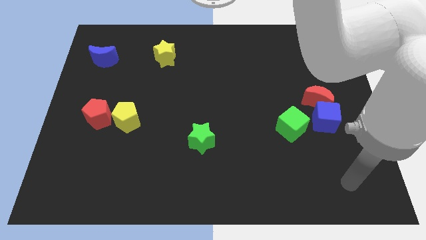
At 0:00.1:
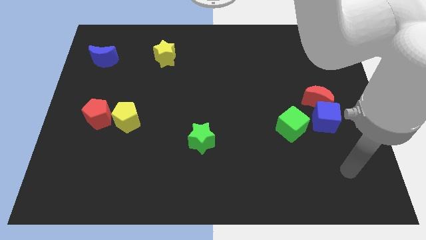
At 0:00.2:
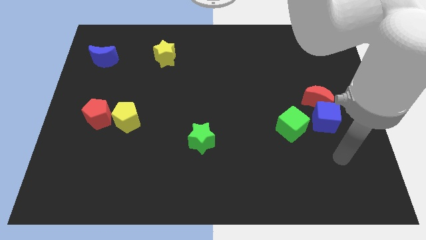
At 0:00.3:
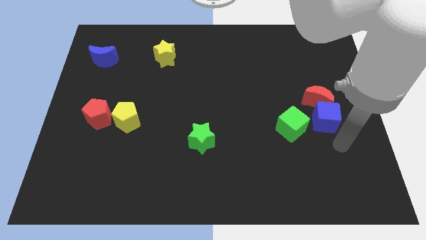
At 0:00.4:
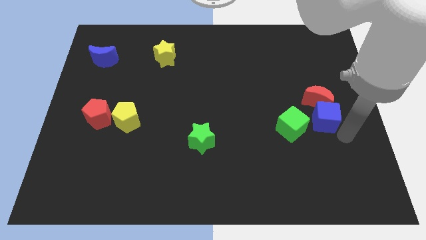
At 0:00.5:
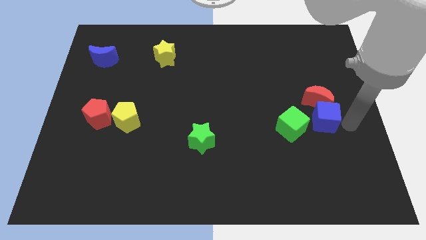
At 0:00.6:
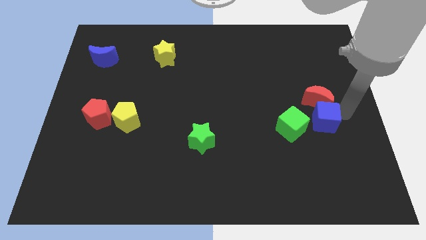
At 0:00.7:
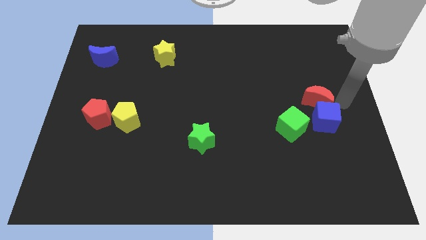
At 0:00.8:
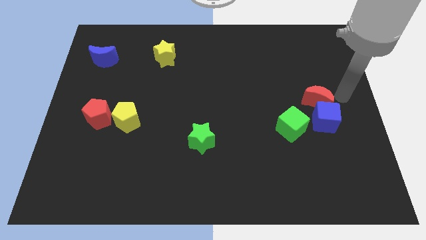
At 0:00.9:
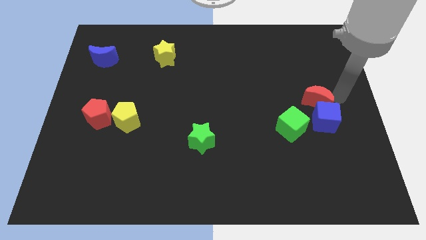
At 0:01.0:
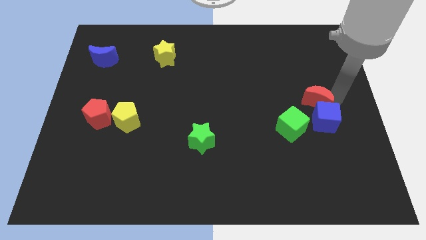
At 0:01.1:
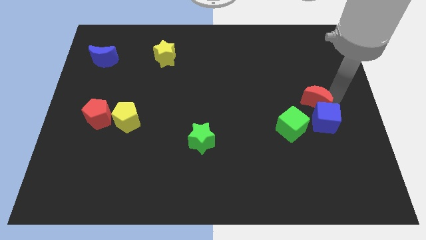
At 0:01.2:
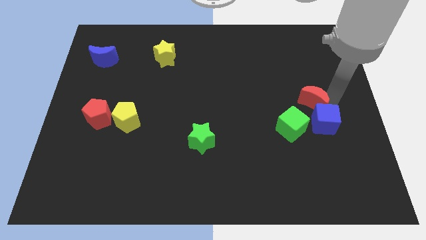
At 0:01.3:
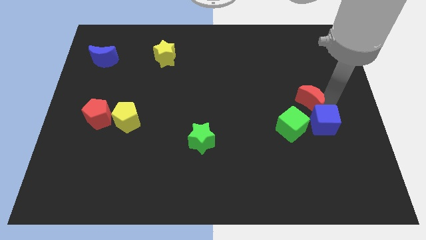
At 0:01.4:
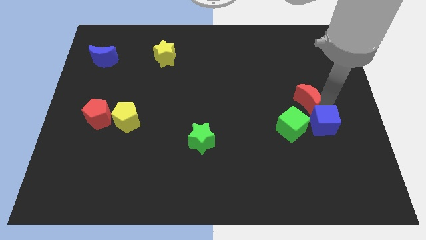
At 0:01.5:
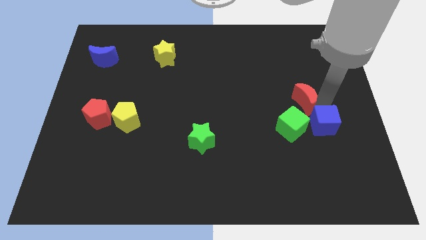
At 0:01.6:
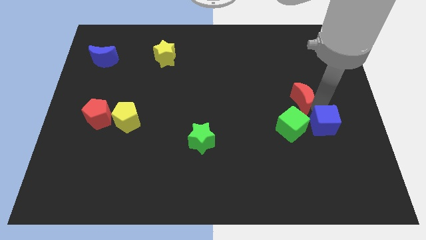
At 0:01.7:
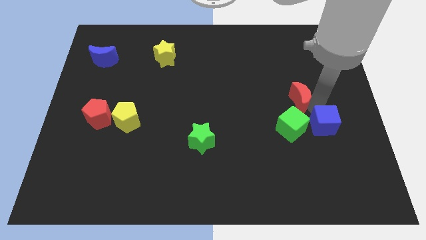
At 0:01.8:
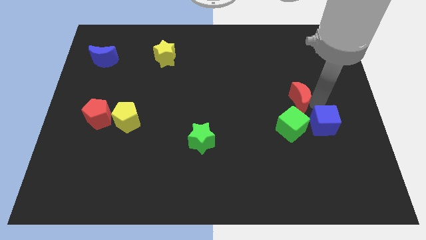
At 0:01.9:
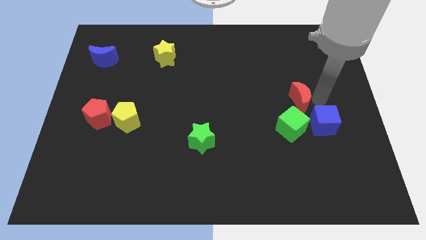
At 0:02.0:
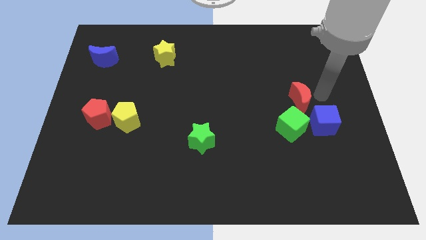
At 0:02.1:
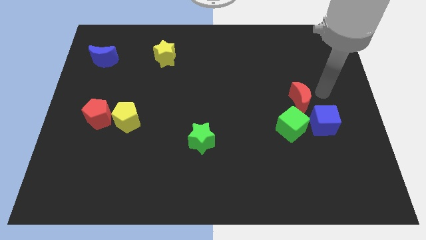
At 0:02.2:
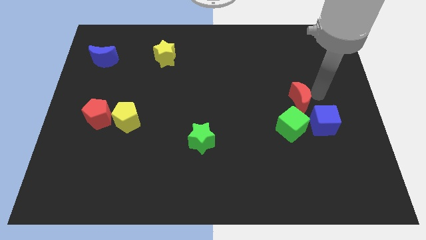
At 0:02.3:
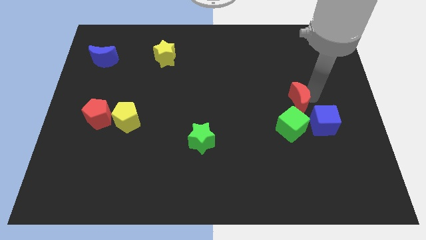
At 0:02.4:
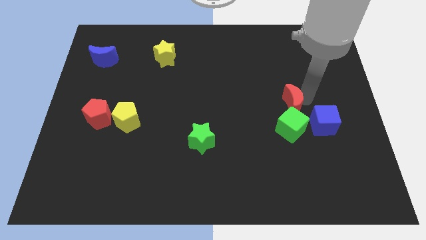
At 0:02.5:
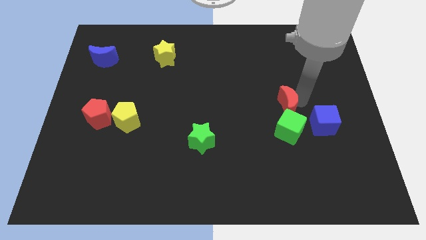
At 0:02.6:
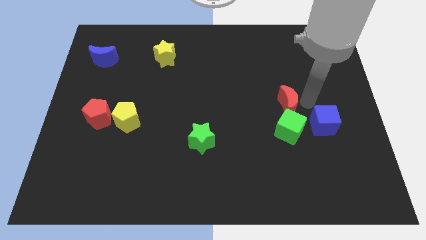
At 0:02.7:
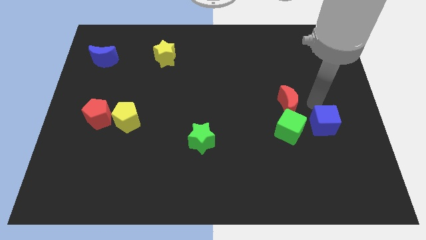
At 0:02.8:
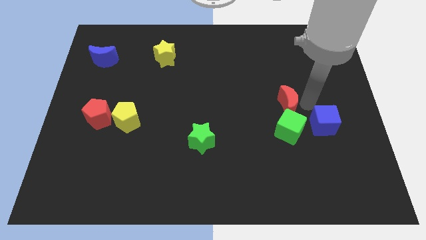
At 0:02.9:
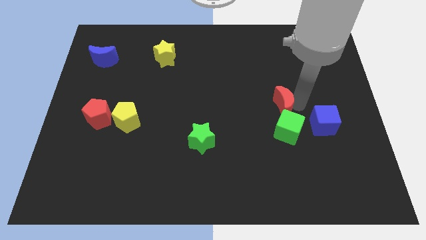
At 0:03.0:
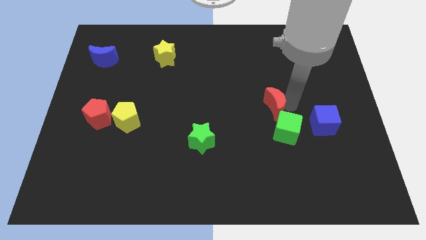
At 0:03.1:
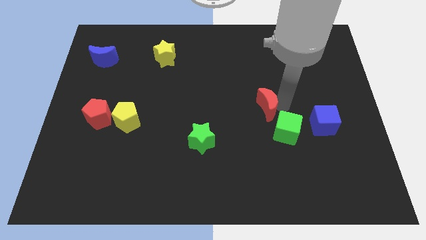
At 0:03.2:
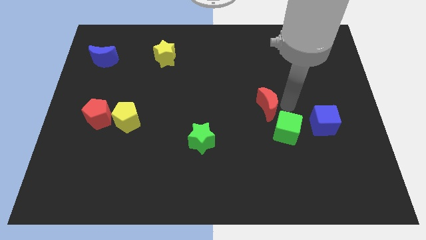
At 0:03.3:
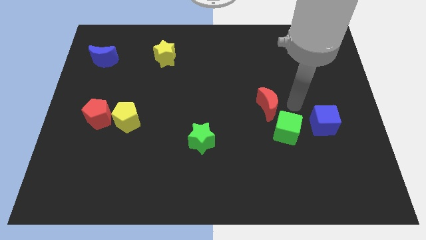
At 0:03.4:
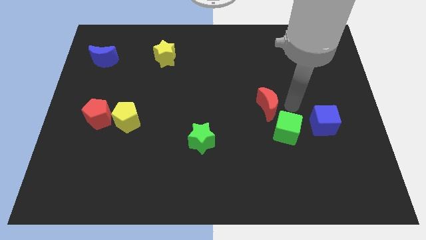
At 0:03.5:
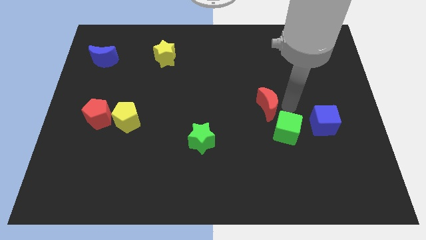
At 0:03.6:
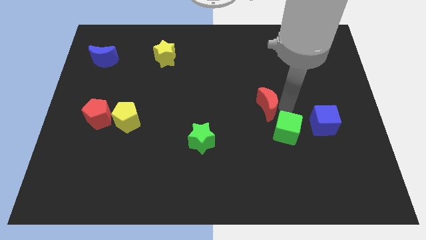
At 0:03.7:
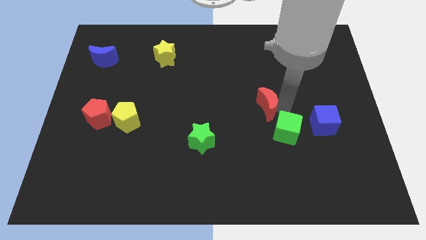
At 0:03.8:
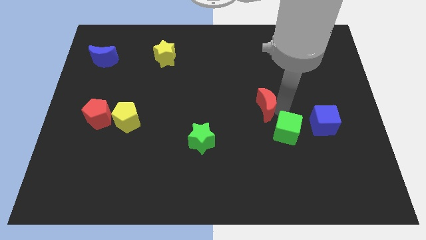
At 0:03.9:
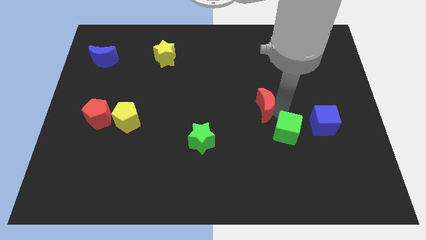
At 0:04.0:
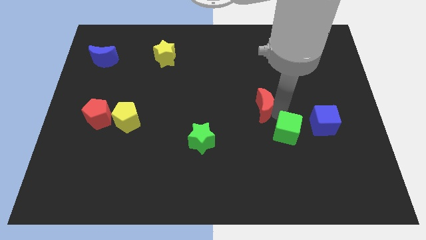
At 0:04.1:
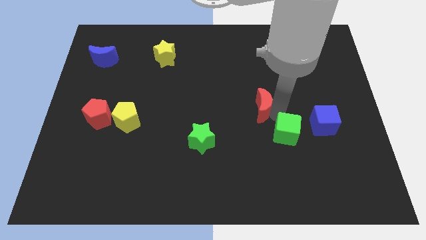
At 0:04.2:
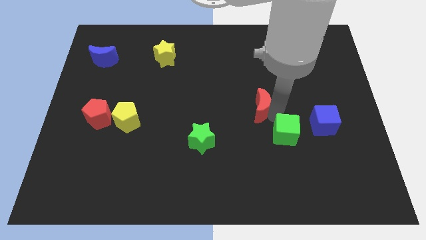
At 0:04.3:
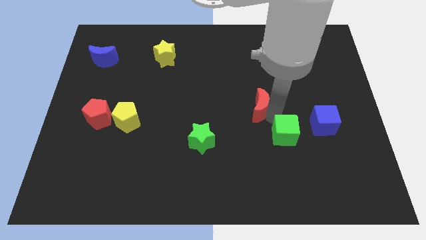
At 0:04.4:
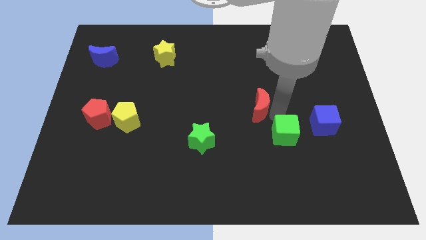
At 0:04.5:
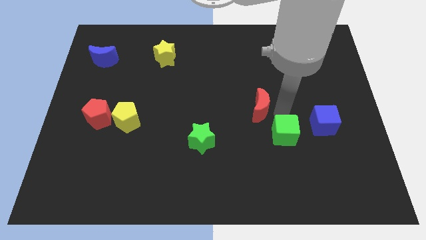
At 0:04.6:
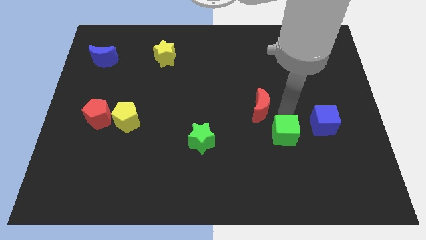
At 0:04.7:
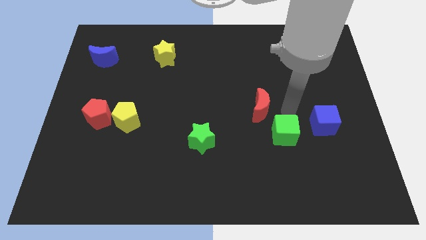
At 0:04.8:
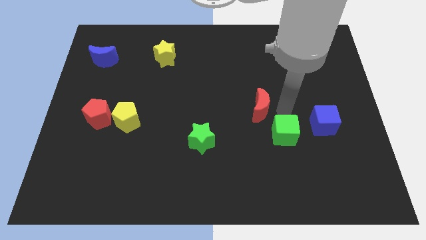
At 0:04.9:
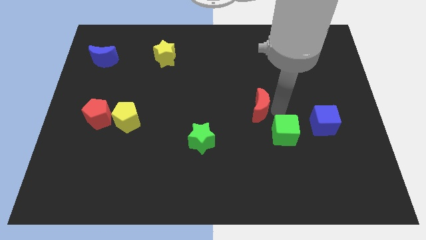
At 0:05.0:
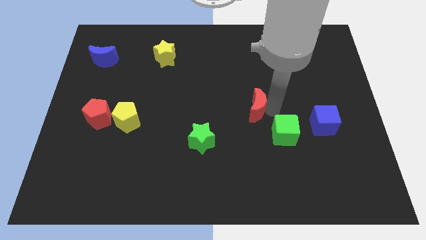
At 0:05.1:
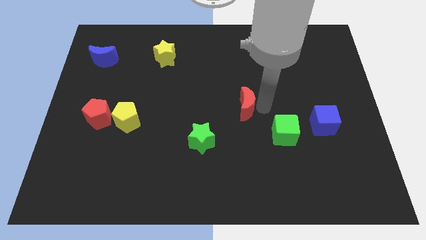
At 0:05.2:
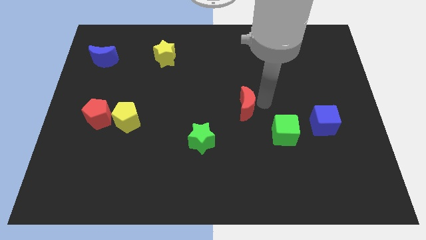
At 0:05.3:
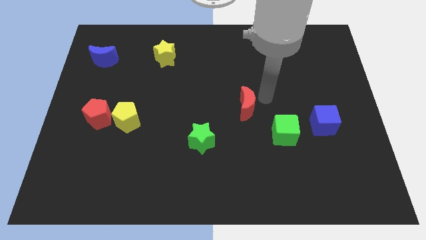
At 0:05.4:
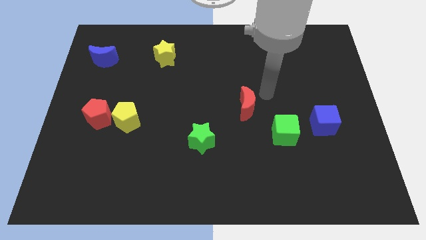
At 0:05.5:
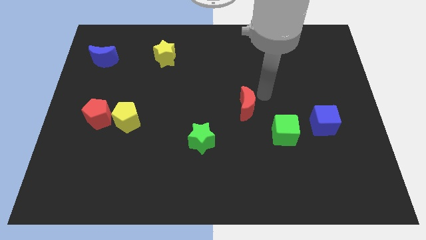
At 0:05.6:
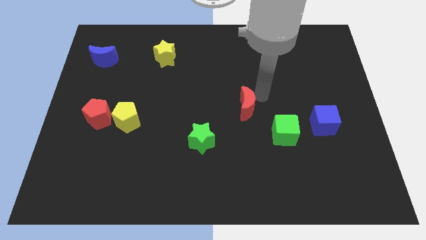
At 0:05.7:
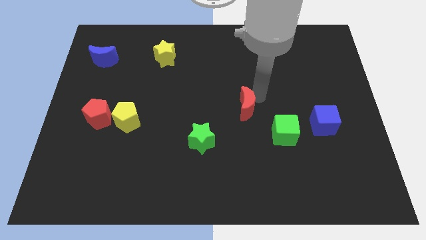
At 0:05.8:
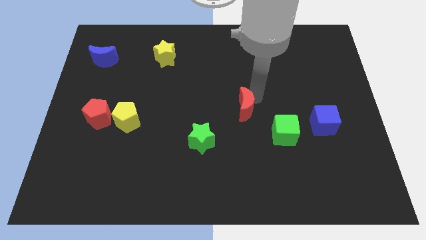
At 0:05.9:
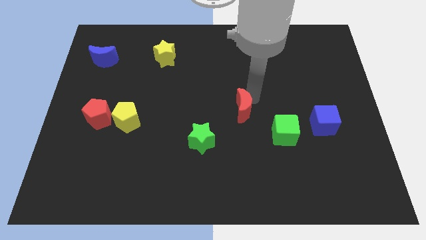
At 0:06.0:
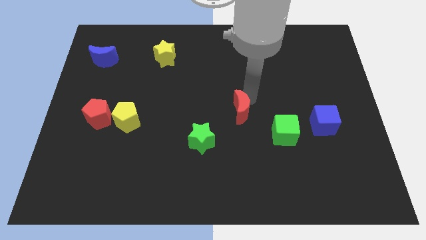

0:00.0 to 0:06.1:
push the red moon diagonally up and to the right of the green star

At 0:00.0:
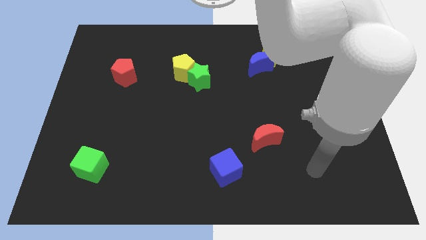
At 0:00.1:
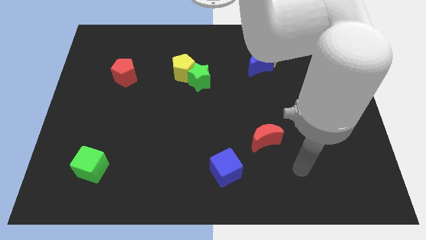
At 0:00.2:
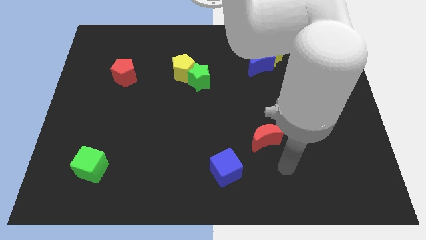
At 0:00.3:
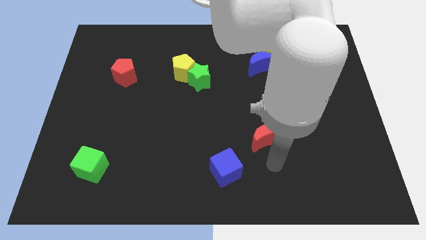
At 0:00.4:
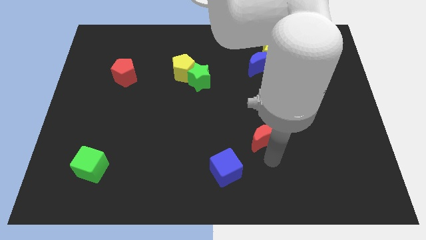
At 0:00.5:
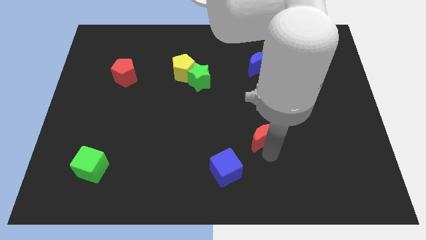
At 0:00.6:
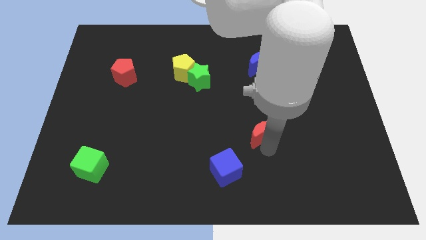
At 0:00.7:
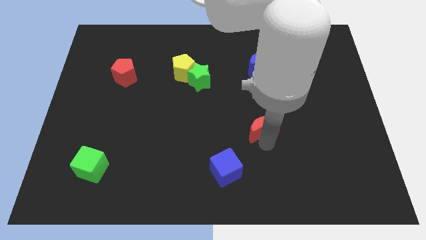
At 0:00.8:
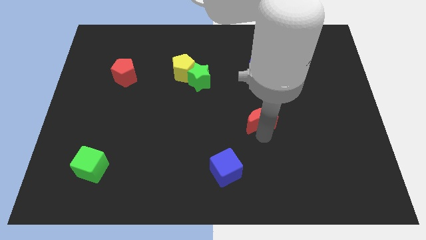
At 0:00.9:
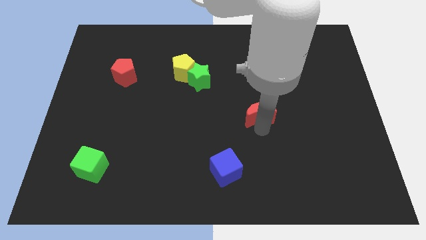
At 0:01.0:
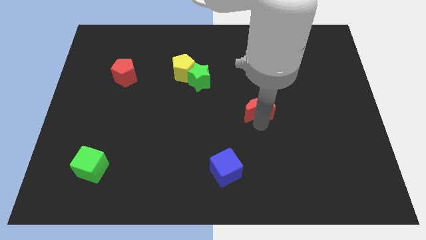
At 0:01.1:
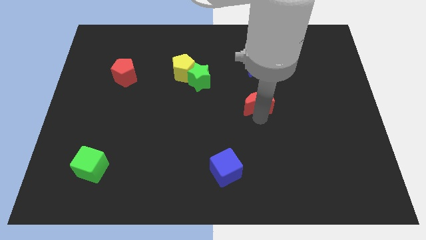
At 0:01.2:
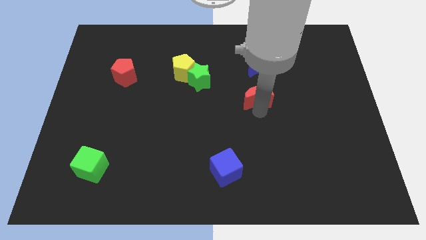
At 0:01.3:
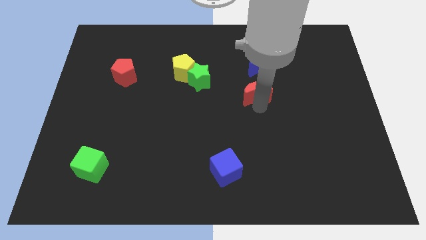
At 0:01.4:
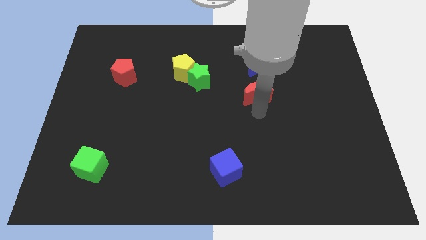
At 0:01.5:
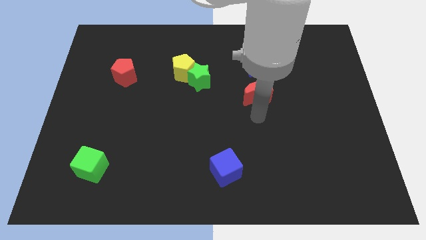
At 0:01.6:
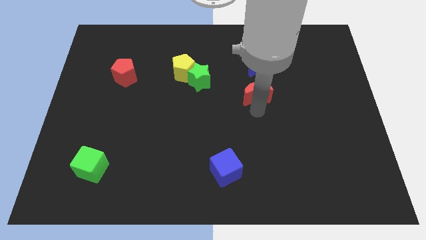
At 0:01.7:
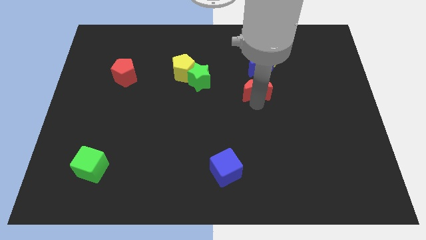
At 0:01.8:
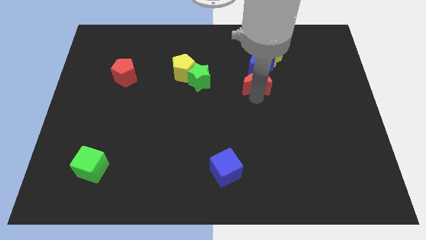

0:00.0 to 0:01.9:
slide the red moon to the bottom left side of the yellow star
